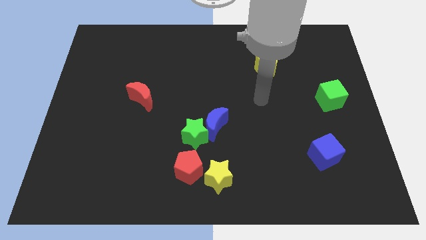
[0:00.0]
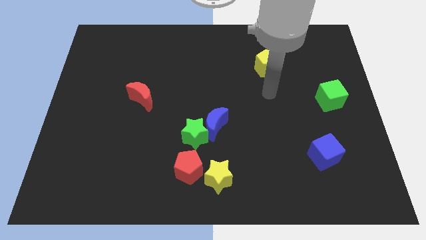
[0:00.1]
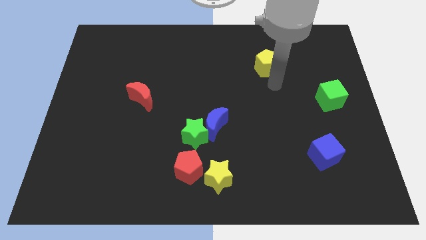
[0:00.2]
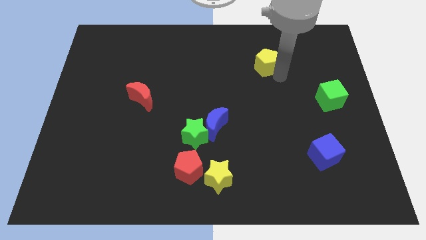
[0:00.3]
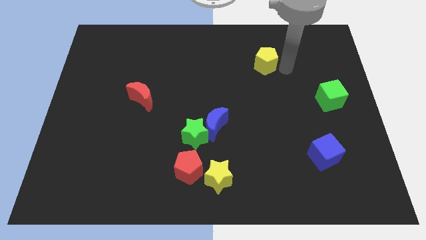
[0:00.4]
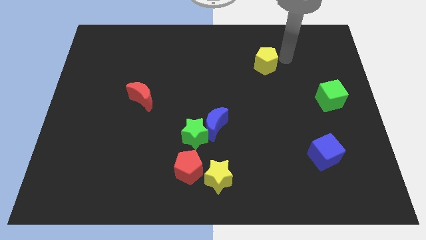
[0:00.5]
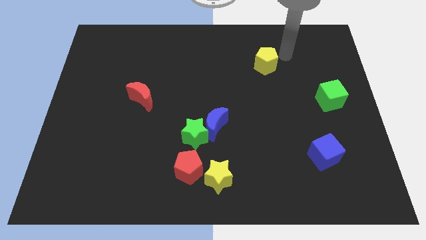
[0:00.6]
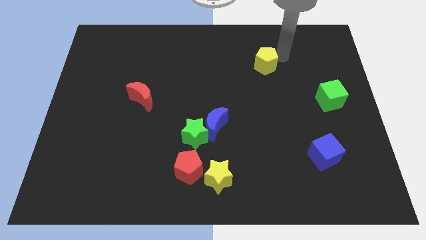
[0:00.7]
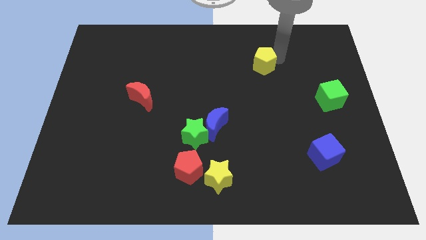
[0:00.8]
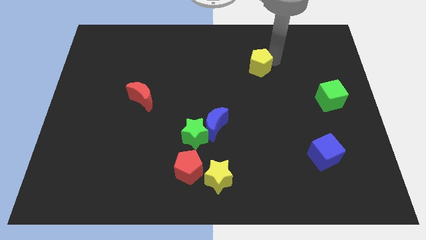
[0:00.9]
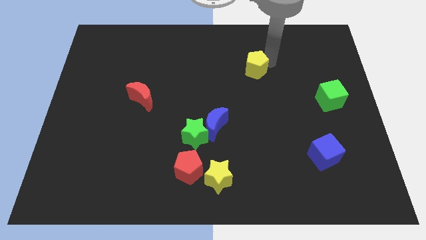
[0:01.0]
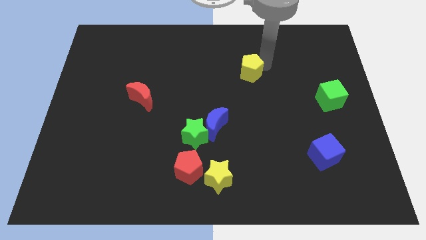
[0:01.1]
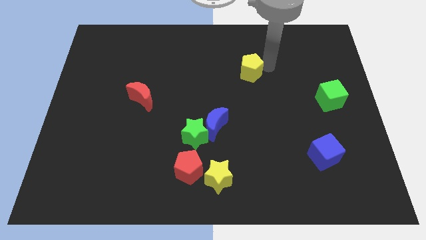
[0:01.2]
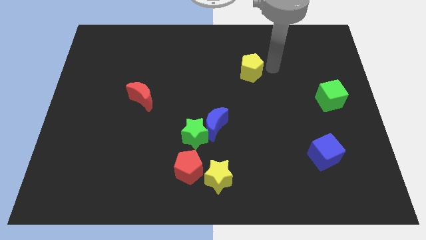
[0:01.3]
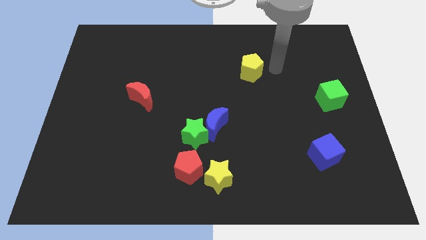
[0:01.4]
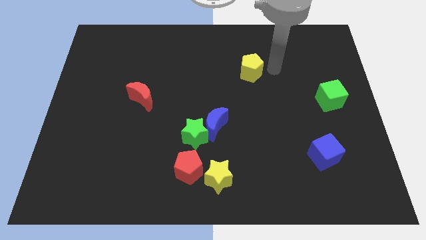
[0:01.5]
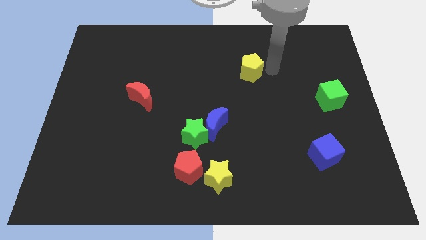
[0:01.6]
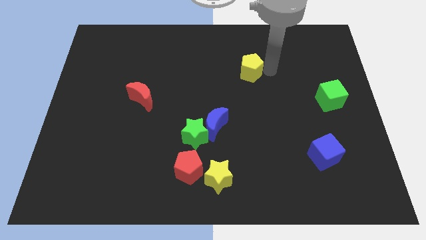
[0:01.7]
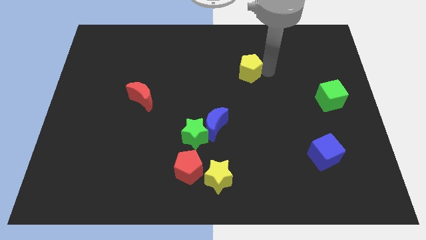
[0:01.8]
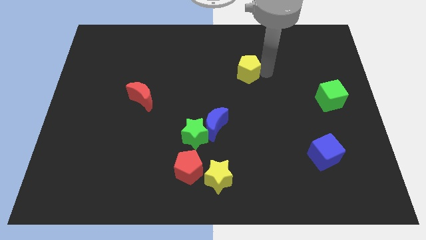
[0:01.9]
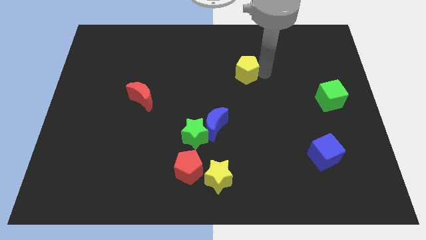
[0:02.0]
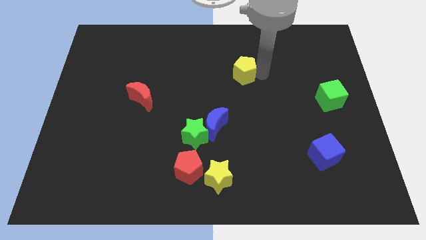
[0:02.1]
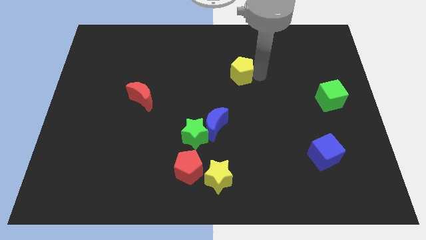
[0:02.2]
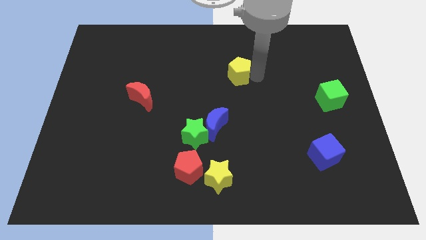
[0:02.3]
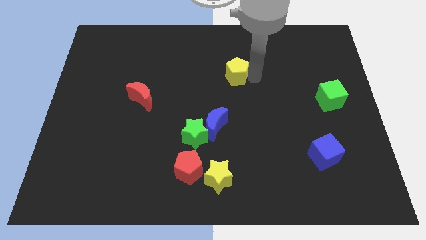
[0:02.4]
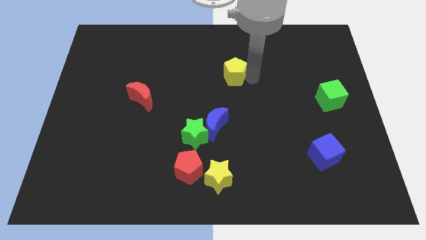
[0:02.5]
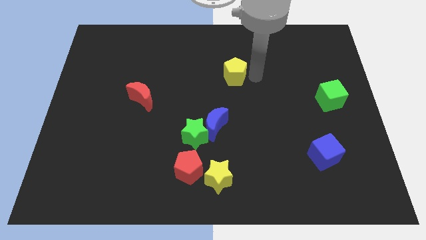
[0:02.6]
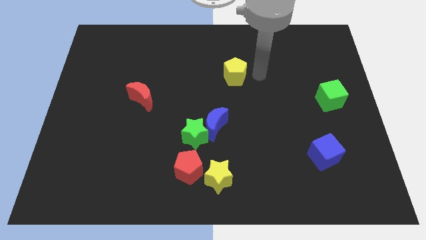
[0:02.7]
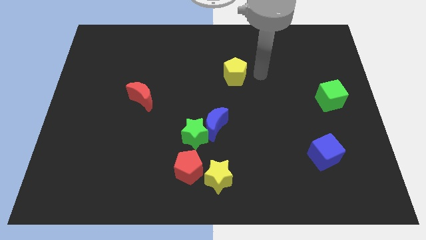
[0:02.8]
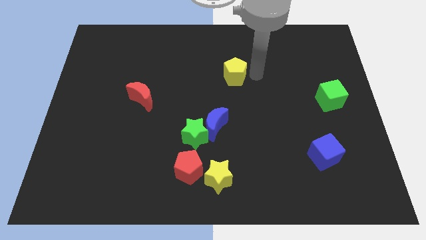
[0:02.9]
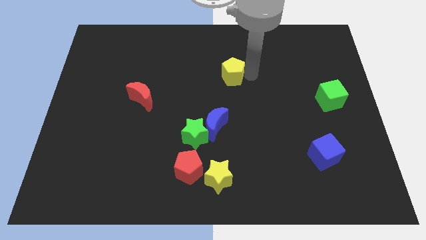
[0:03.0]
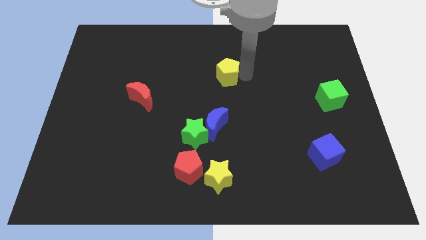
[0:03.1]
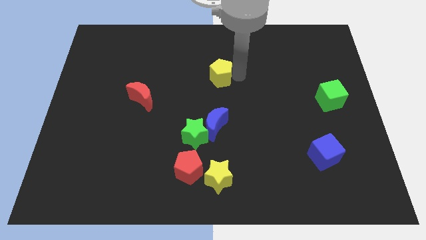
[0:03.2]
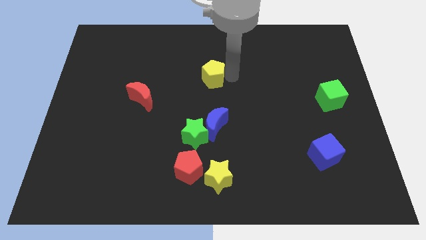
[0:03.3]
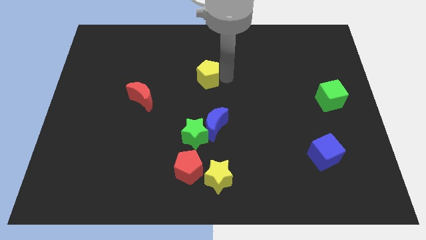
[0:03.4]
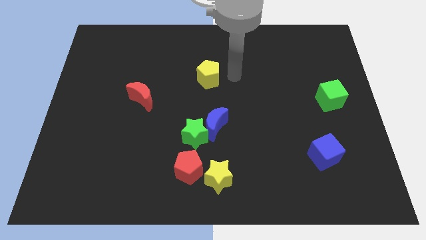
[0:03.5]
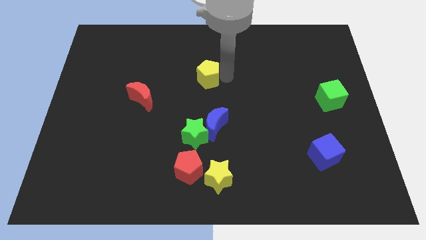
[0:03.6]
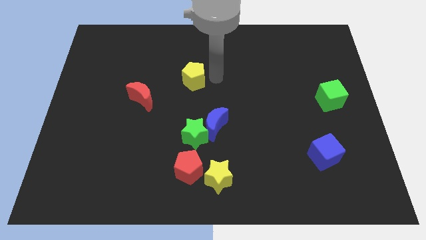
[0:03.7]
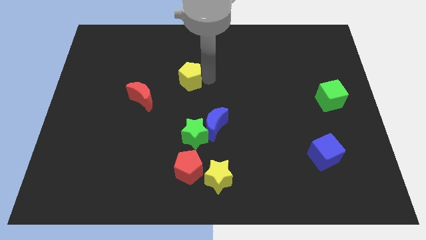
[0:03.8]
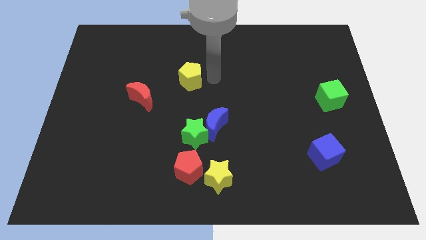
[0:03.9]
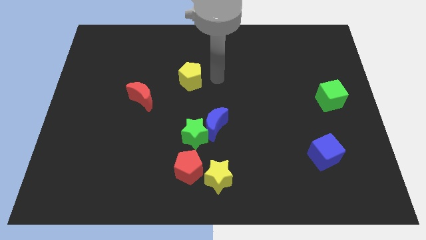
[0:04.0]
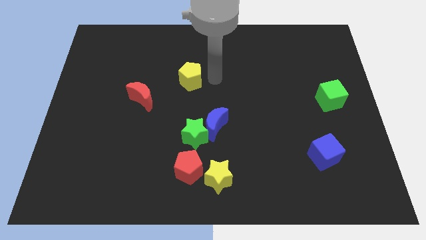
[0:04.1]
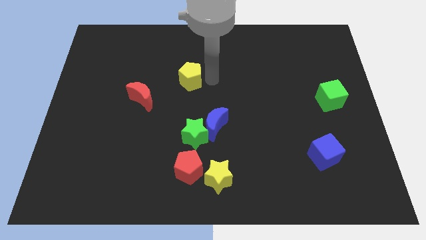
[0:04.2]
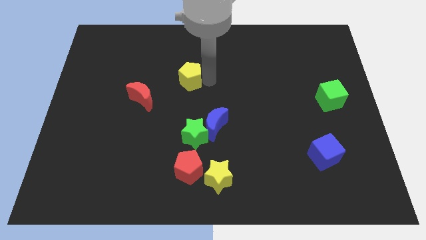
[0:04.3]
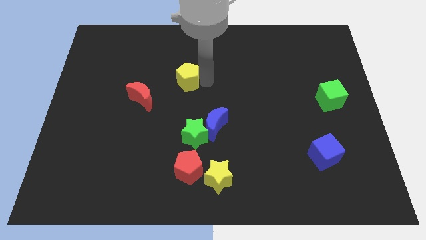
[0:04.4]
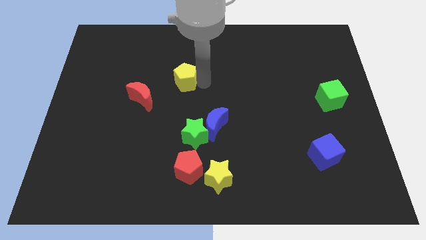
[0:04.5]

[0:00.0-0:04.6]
slide the yellow pentagon diagonally up and to the right of the red moon

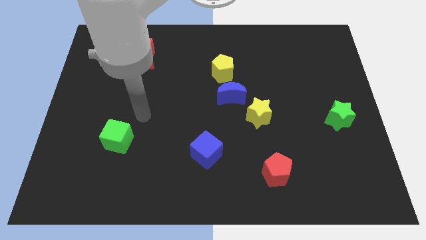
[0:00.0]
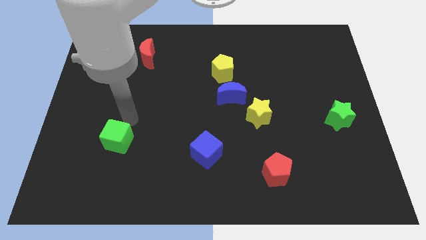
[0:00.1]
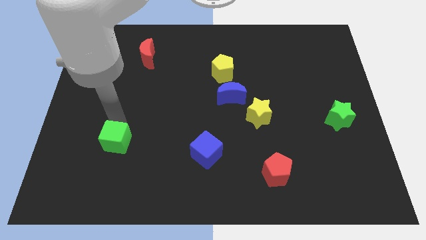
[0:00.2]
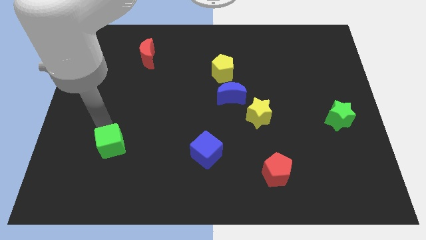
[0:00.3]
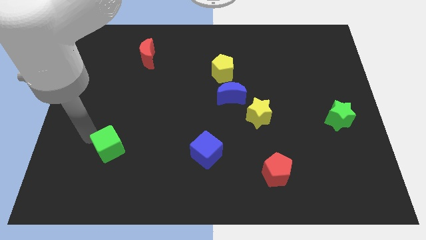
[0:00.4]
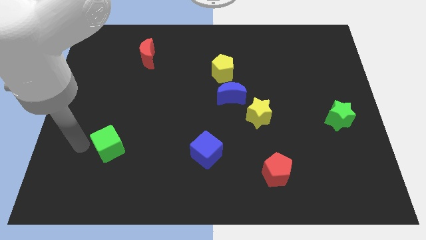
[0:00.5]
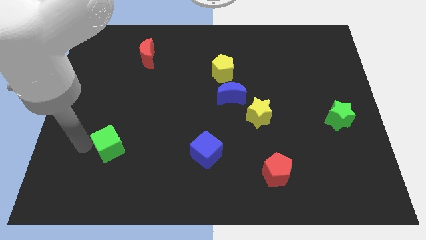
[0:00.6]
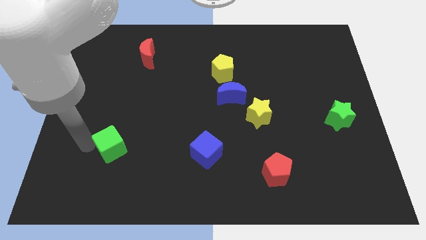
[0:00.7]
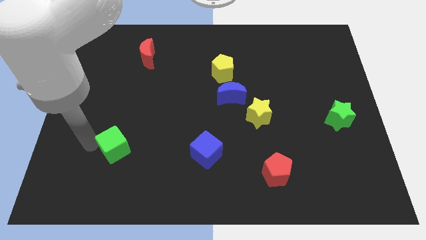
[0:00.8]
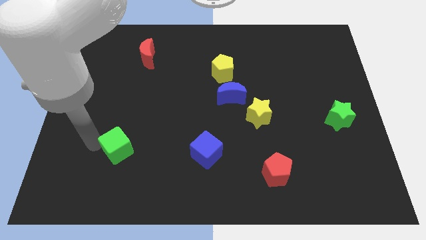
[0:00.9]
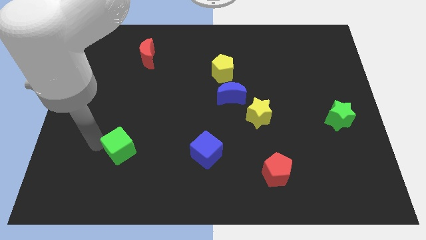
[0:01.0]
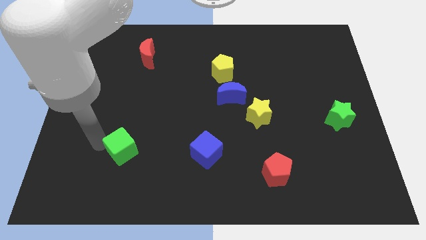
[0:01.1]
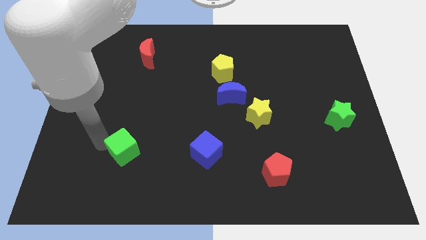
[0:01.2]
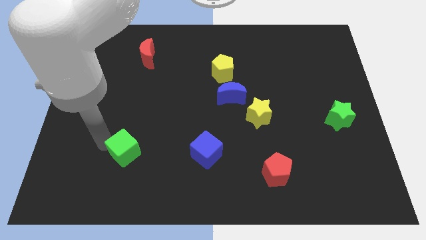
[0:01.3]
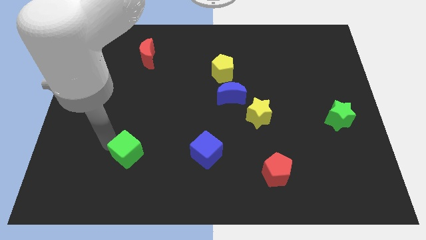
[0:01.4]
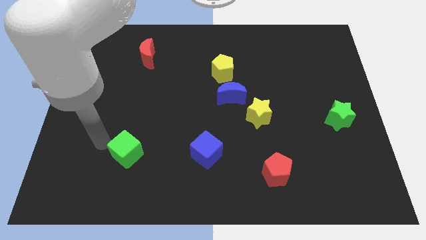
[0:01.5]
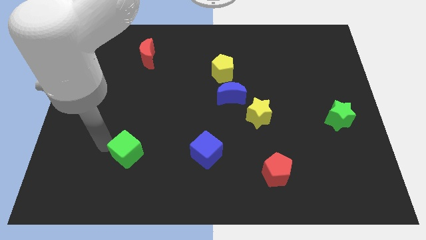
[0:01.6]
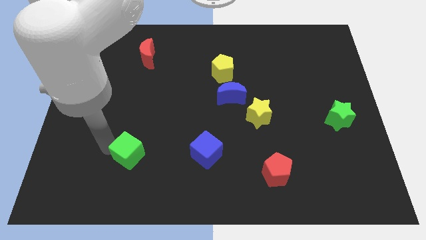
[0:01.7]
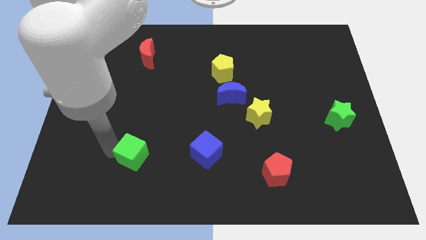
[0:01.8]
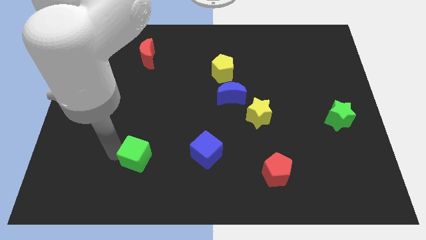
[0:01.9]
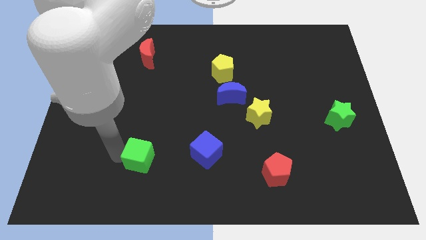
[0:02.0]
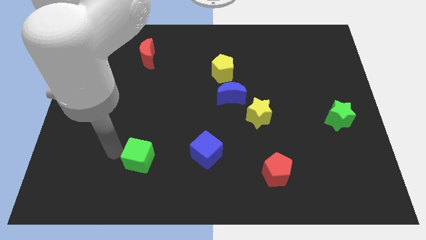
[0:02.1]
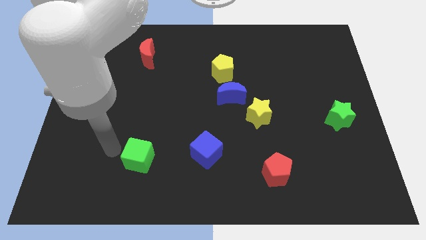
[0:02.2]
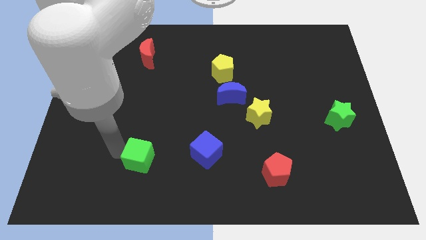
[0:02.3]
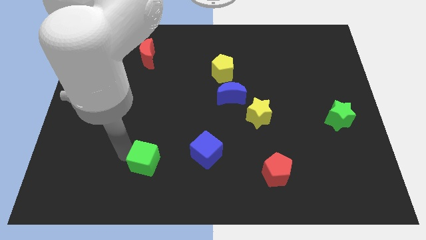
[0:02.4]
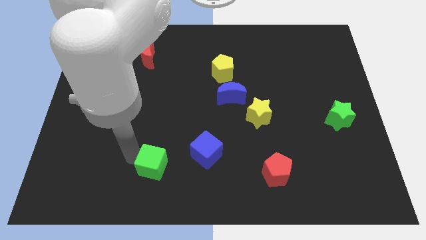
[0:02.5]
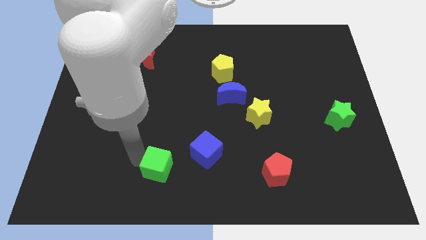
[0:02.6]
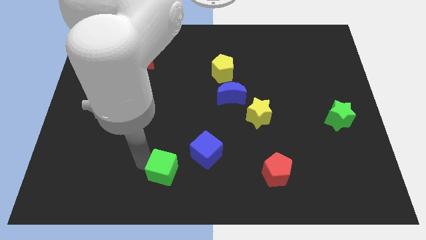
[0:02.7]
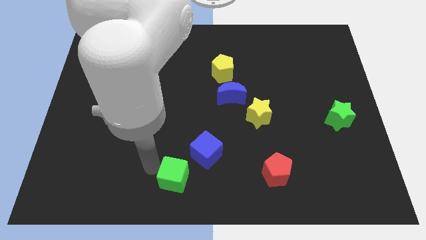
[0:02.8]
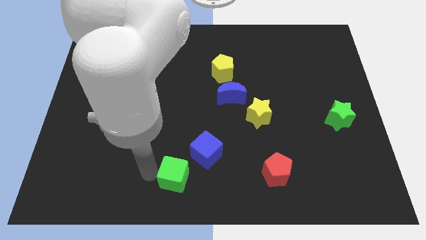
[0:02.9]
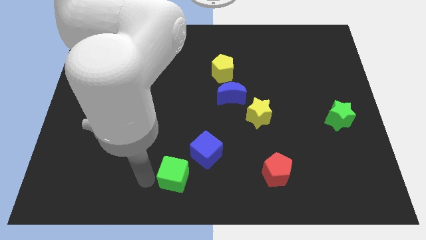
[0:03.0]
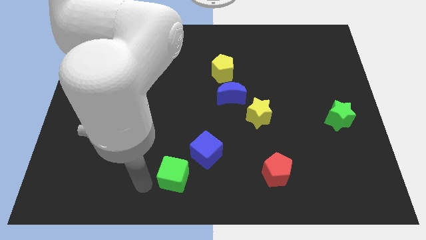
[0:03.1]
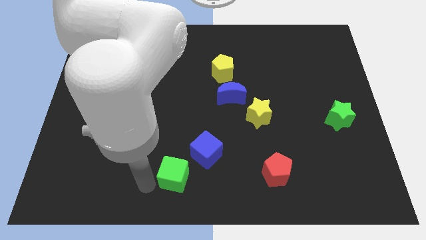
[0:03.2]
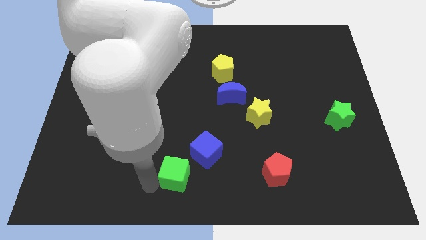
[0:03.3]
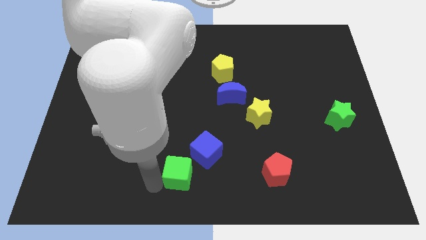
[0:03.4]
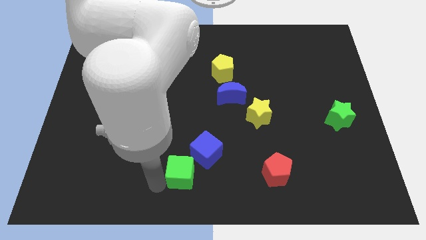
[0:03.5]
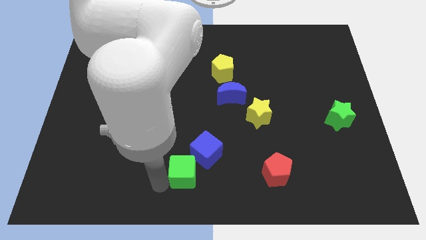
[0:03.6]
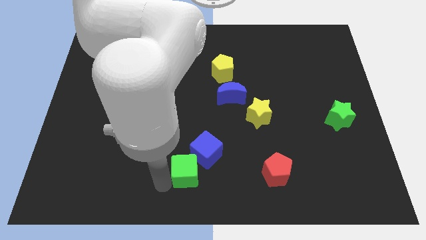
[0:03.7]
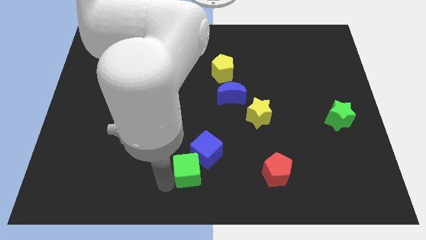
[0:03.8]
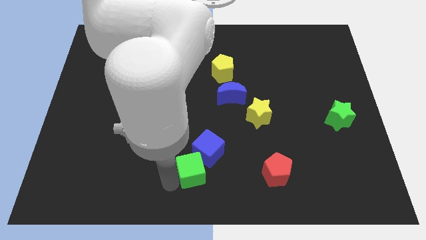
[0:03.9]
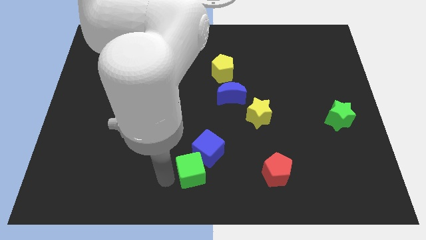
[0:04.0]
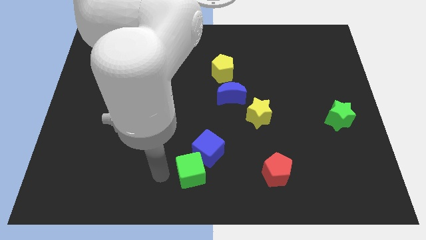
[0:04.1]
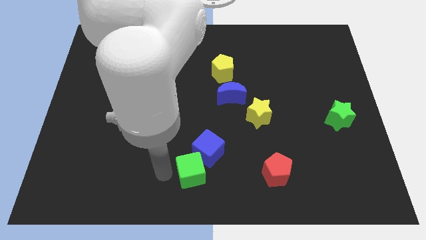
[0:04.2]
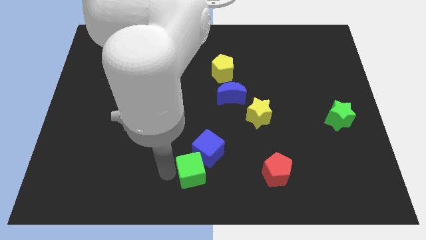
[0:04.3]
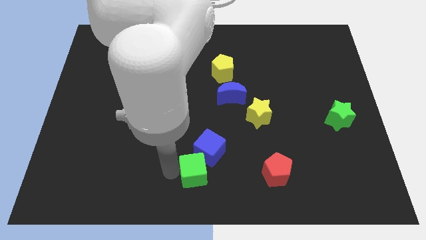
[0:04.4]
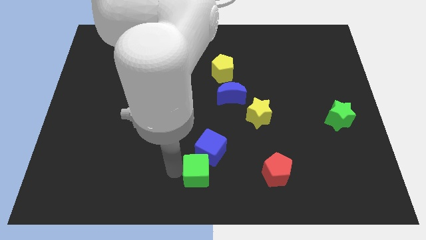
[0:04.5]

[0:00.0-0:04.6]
move the green cube to the left of the red pentagon
